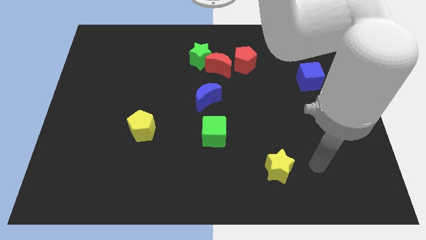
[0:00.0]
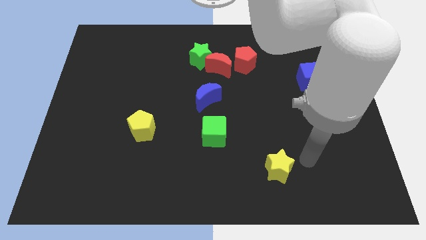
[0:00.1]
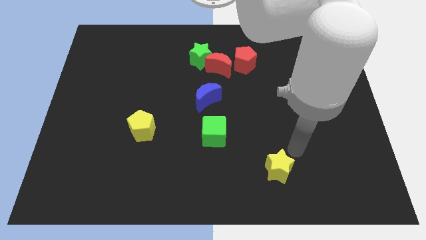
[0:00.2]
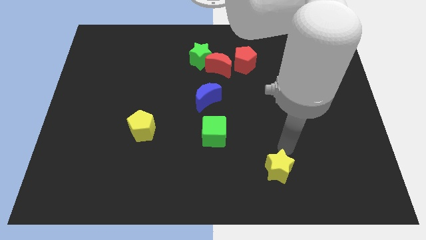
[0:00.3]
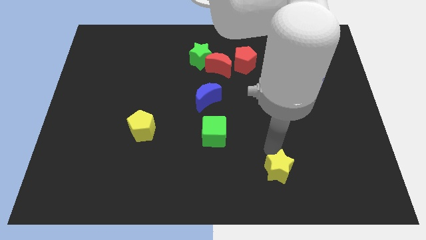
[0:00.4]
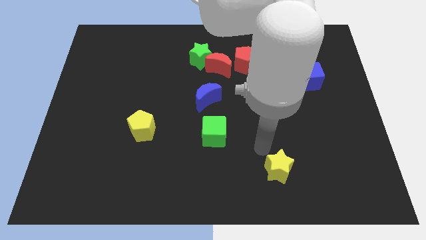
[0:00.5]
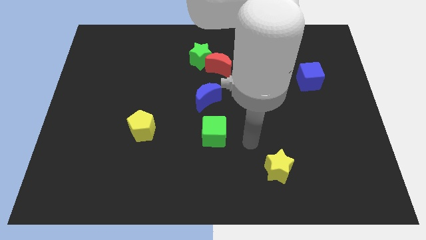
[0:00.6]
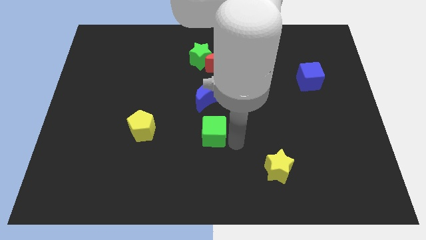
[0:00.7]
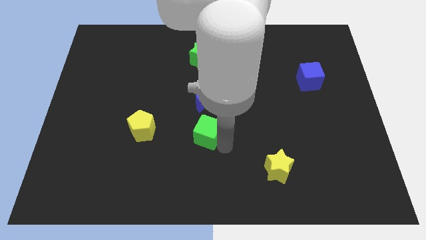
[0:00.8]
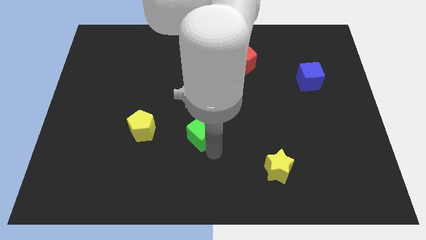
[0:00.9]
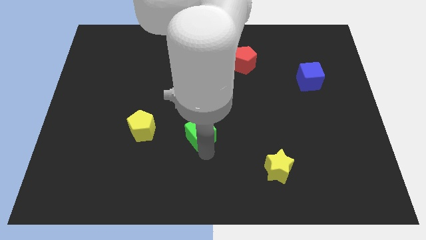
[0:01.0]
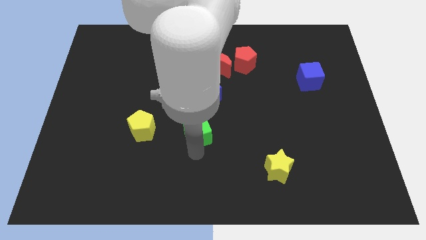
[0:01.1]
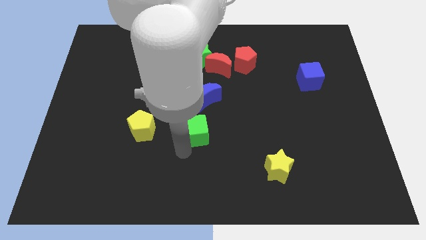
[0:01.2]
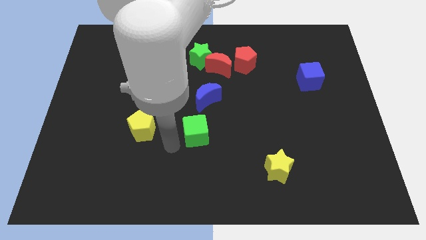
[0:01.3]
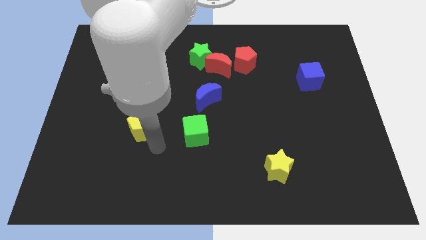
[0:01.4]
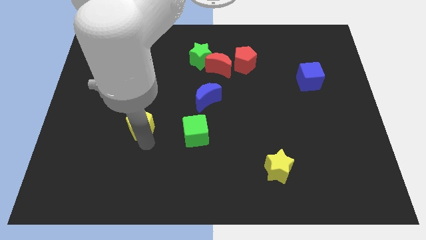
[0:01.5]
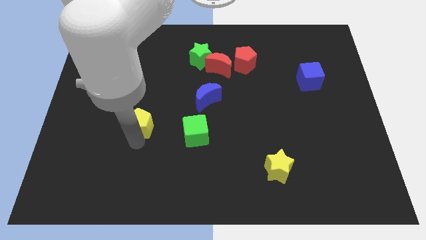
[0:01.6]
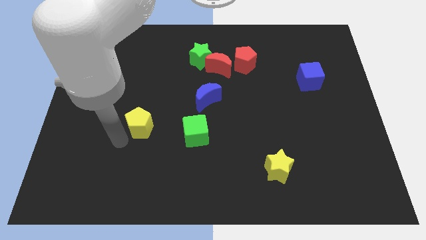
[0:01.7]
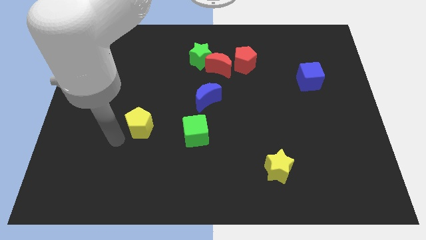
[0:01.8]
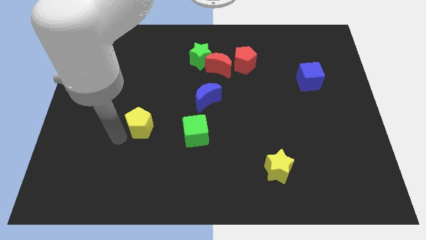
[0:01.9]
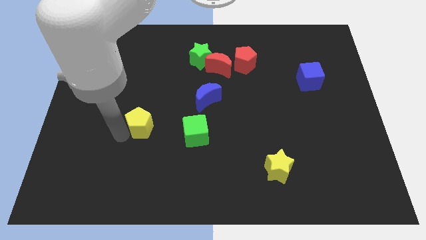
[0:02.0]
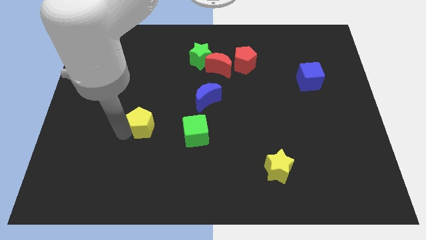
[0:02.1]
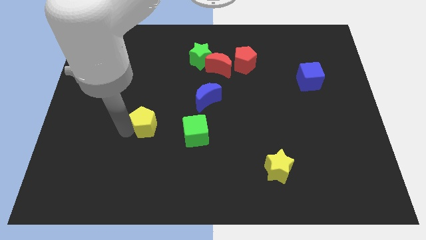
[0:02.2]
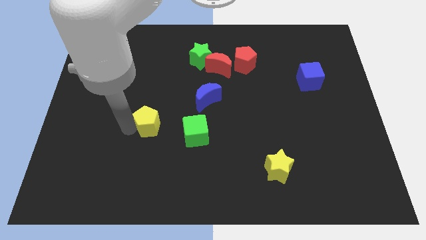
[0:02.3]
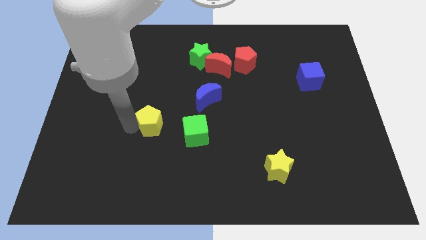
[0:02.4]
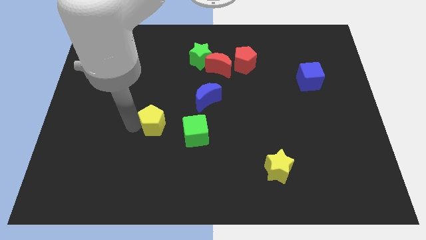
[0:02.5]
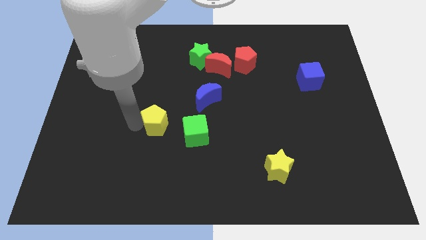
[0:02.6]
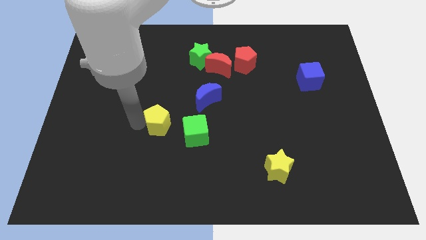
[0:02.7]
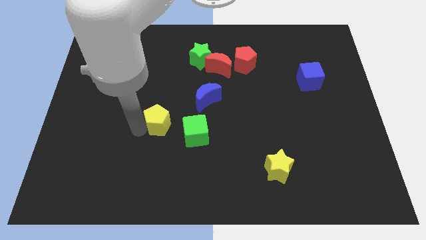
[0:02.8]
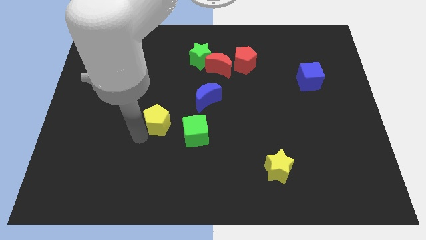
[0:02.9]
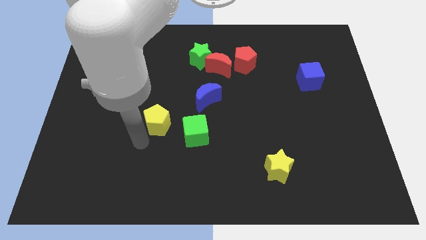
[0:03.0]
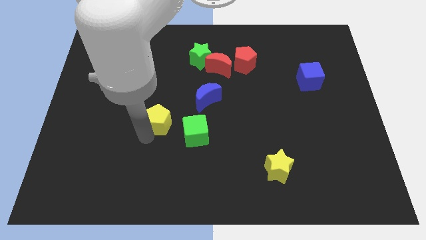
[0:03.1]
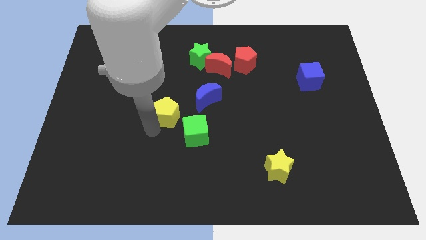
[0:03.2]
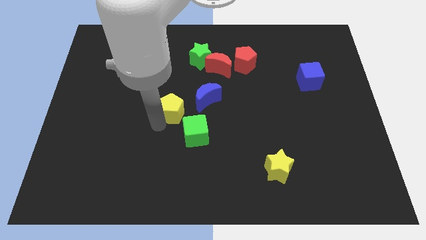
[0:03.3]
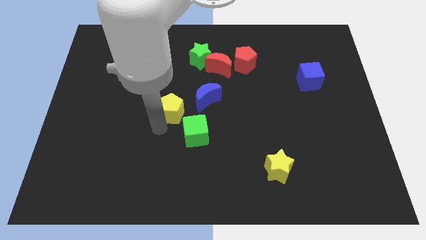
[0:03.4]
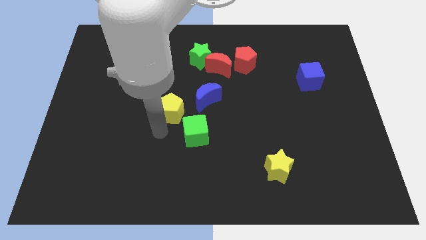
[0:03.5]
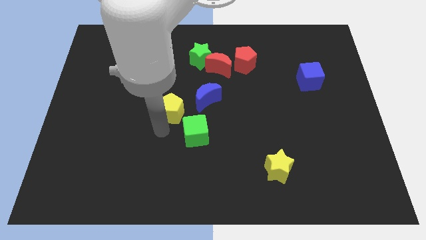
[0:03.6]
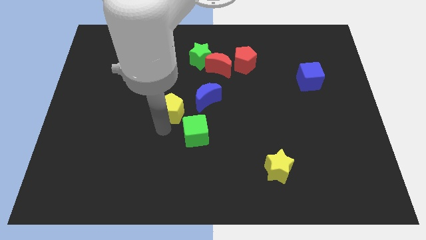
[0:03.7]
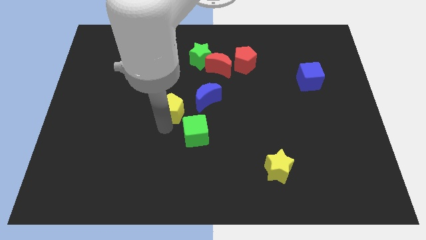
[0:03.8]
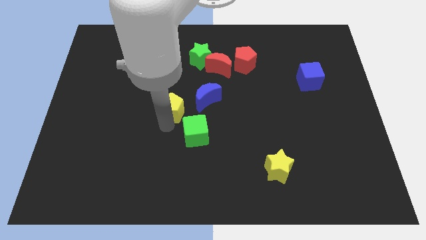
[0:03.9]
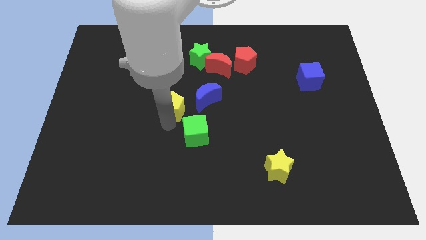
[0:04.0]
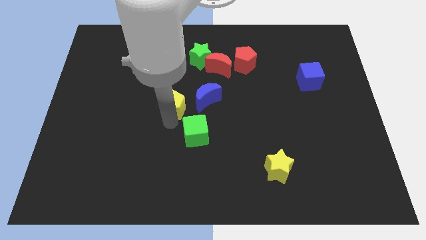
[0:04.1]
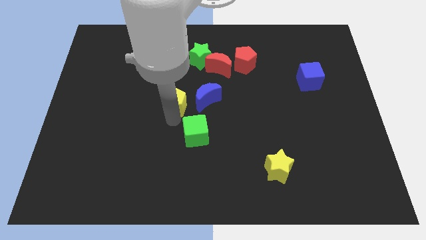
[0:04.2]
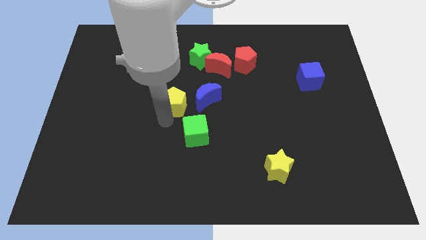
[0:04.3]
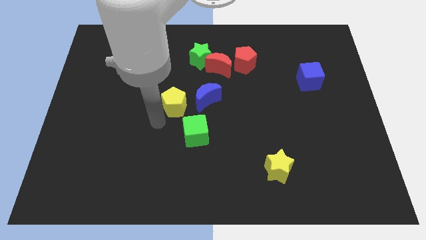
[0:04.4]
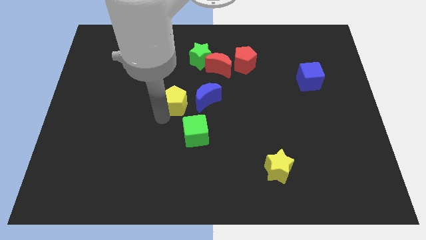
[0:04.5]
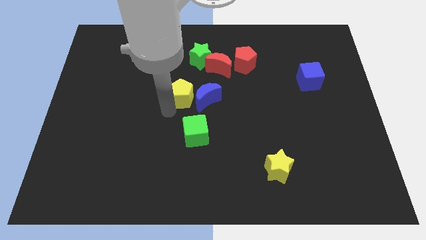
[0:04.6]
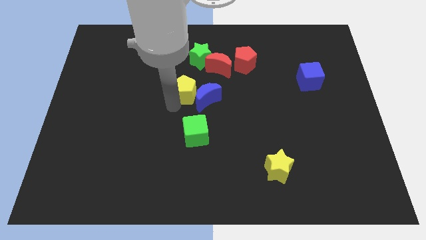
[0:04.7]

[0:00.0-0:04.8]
push the yellow pentagon diagonally down and to the left of the red moon

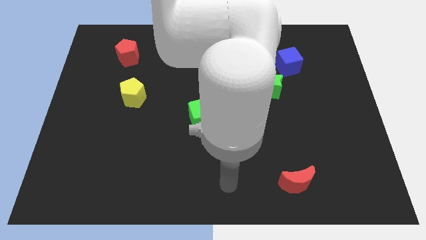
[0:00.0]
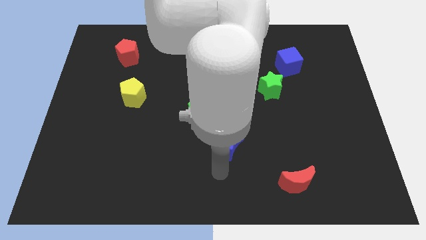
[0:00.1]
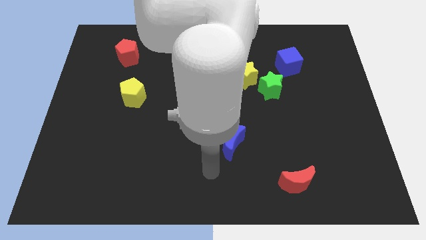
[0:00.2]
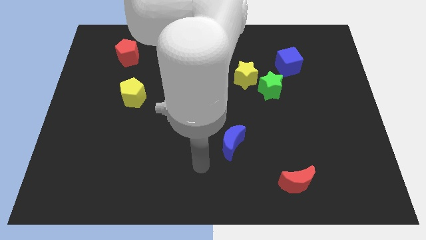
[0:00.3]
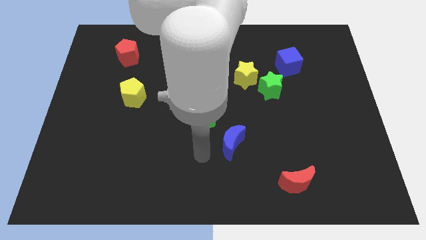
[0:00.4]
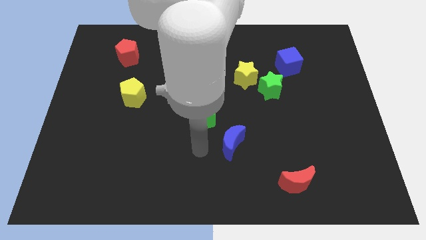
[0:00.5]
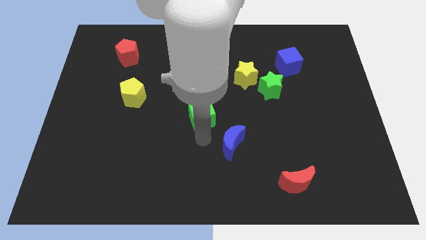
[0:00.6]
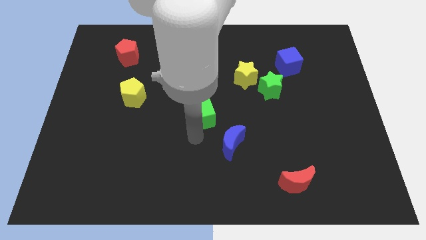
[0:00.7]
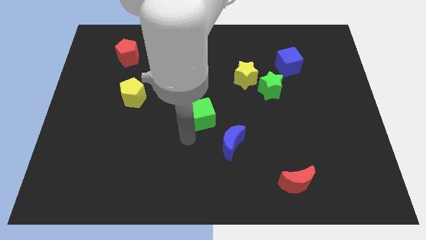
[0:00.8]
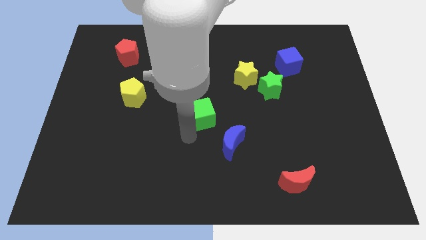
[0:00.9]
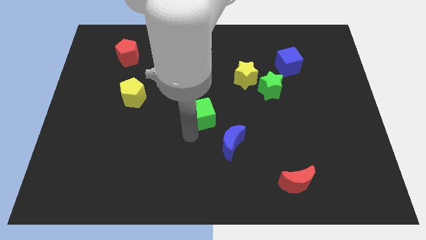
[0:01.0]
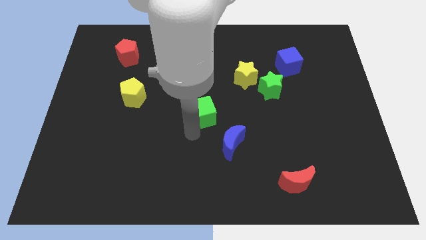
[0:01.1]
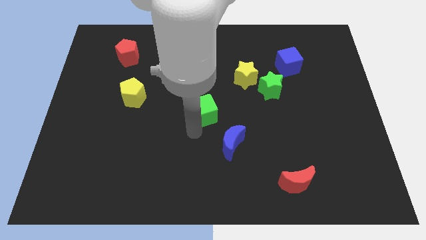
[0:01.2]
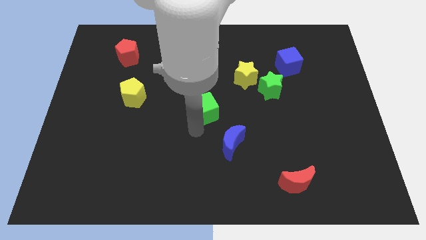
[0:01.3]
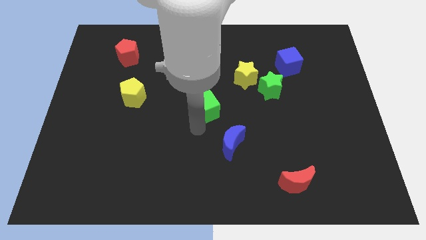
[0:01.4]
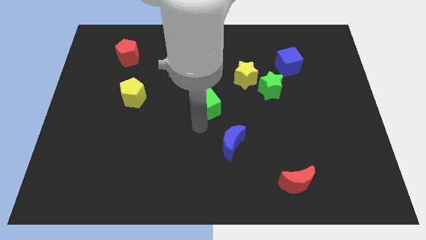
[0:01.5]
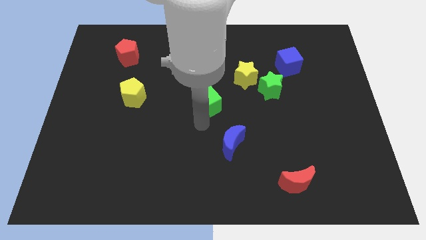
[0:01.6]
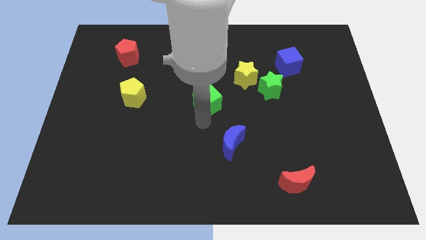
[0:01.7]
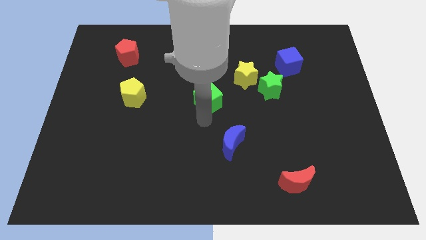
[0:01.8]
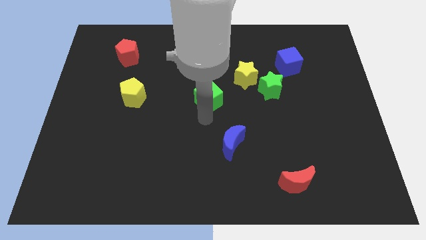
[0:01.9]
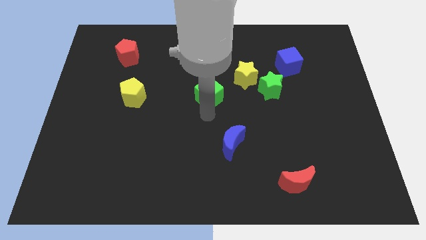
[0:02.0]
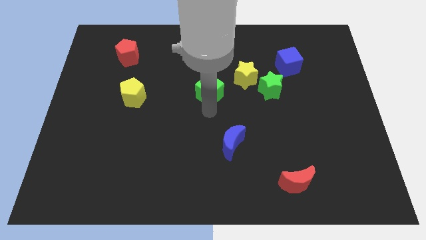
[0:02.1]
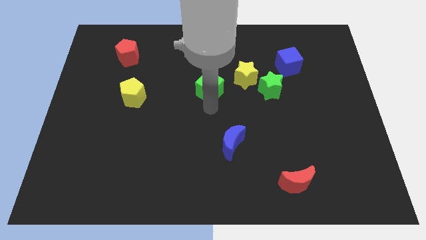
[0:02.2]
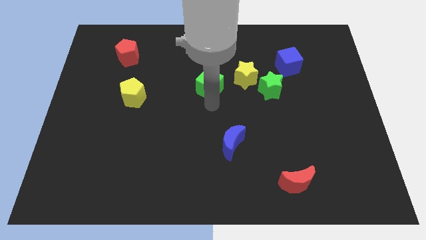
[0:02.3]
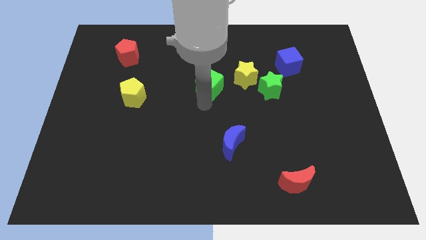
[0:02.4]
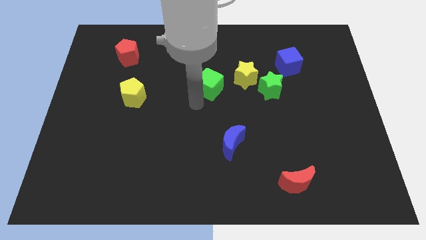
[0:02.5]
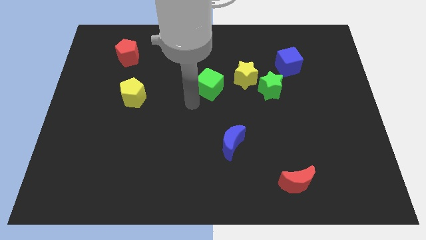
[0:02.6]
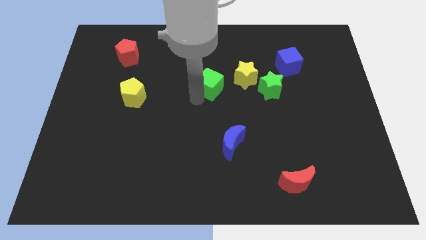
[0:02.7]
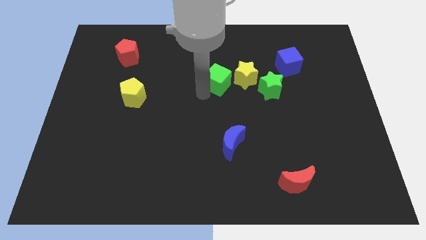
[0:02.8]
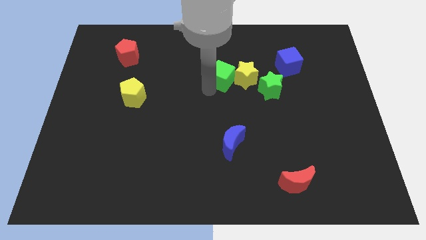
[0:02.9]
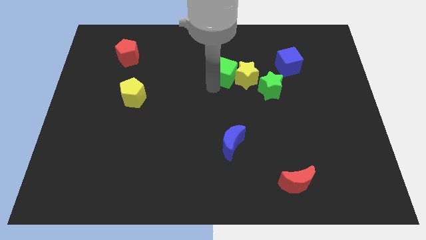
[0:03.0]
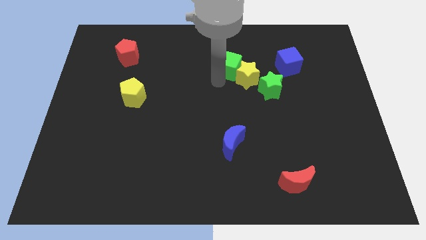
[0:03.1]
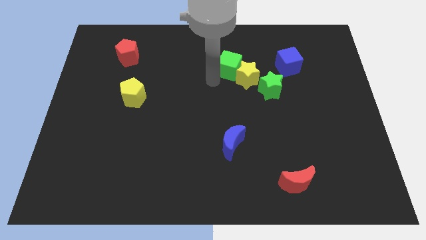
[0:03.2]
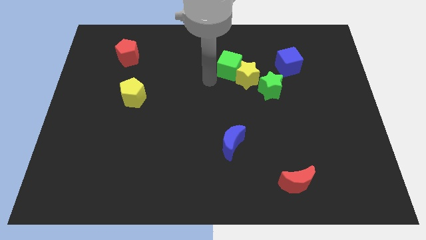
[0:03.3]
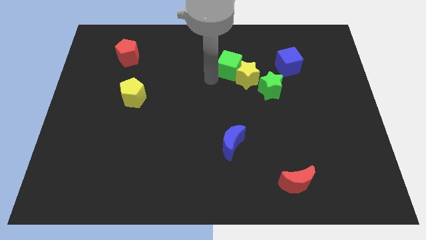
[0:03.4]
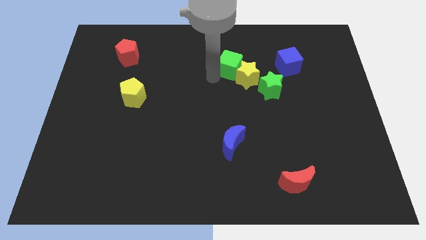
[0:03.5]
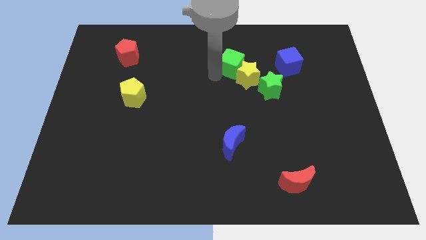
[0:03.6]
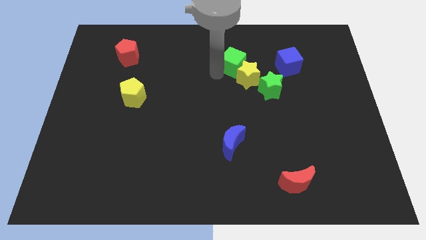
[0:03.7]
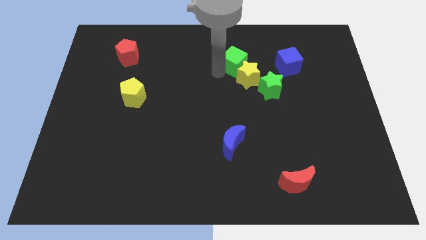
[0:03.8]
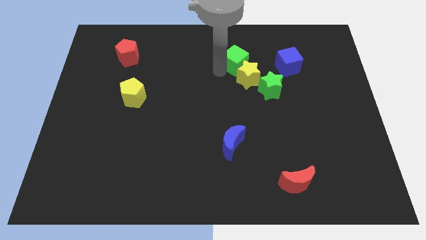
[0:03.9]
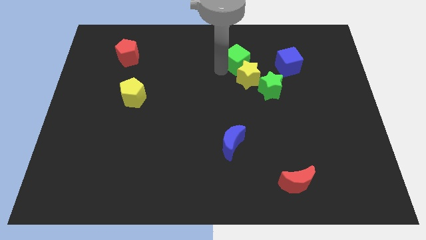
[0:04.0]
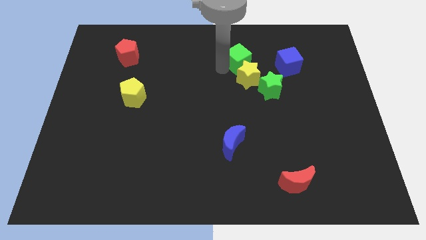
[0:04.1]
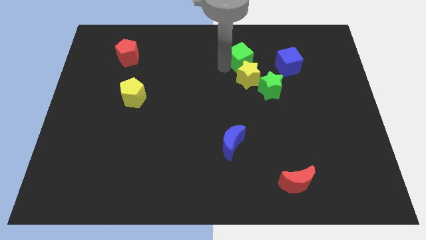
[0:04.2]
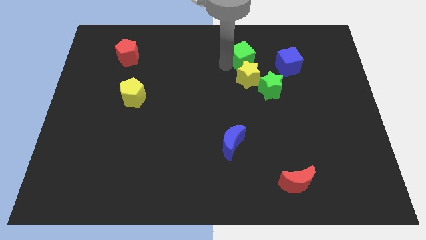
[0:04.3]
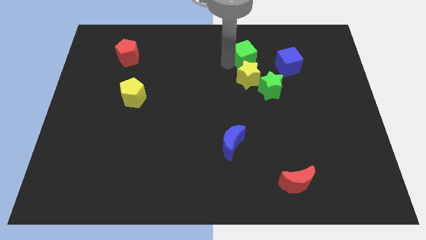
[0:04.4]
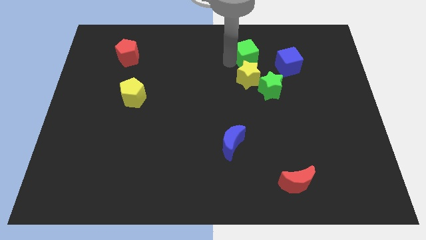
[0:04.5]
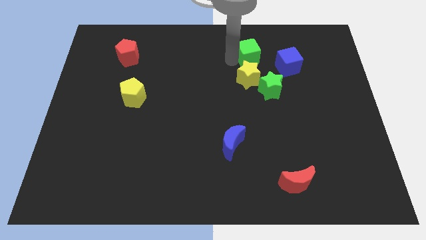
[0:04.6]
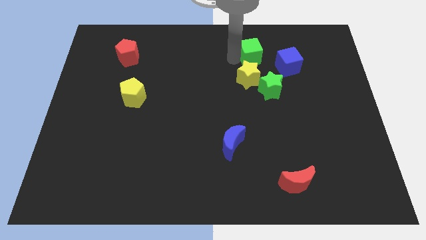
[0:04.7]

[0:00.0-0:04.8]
move the green cube to the top right of the yellow star
